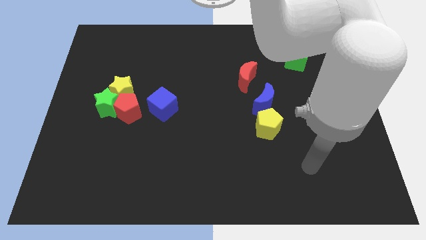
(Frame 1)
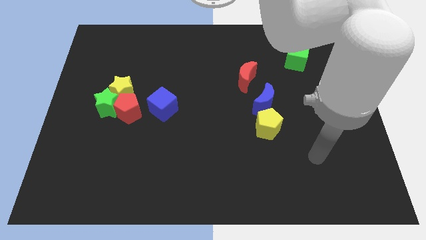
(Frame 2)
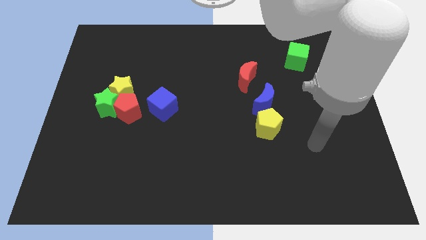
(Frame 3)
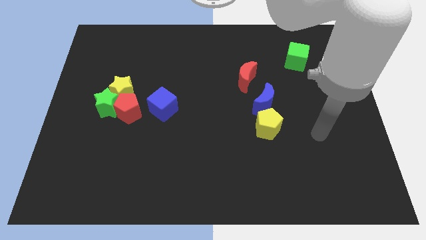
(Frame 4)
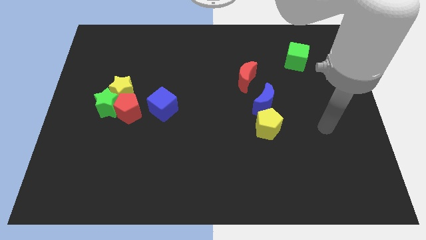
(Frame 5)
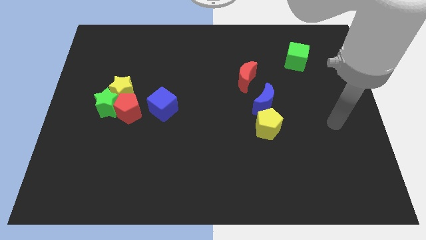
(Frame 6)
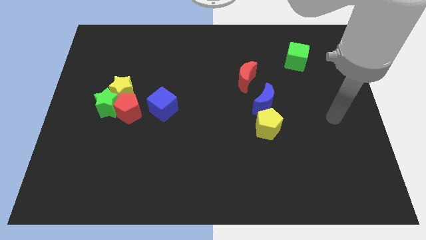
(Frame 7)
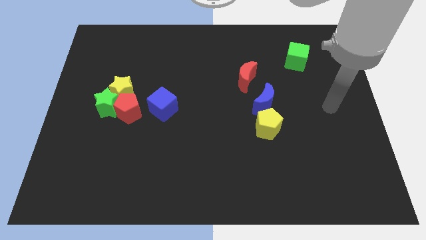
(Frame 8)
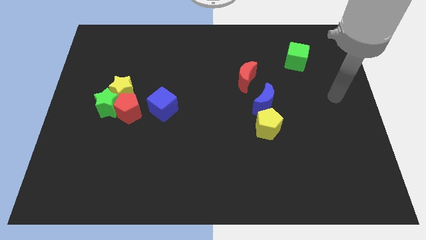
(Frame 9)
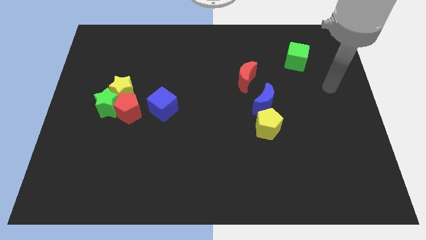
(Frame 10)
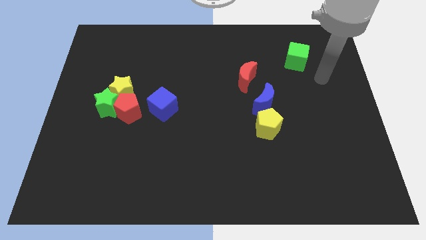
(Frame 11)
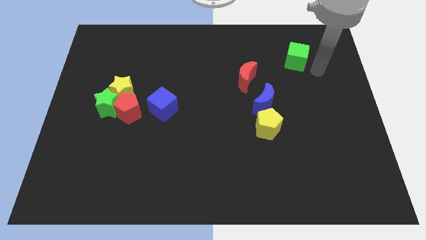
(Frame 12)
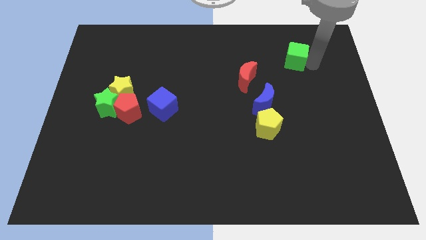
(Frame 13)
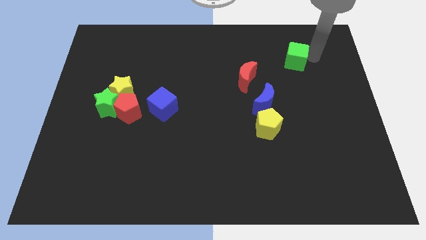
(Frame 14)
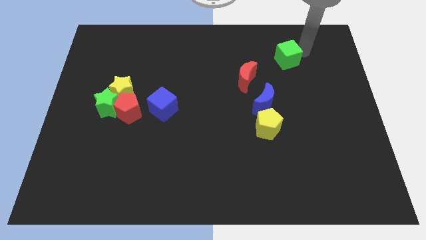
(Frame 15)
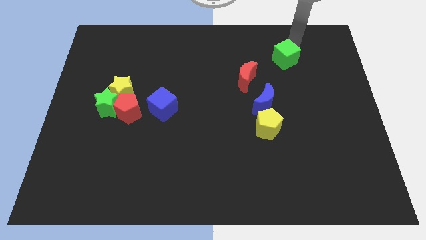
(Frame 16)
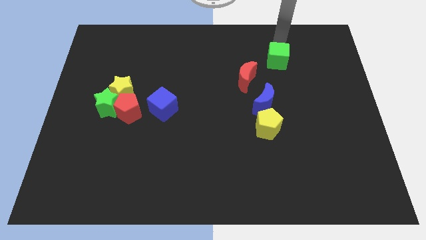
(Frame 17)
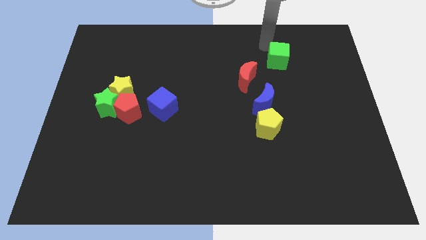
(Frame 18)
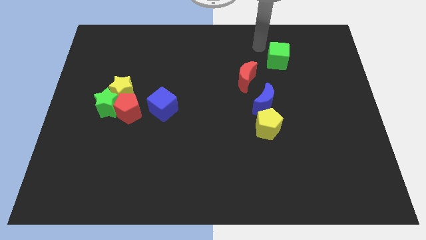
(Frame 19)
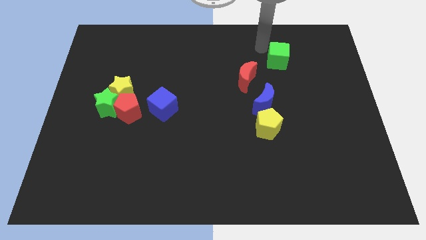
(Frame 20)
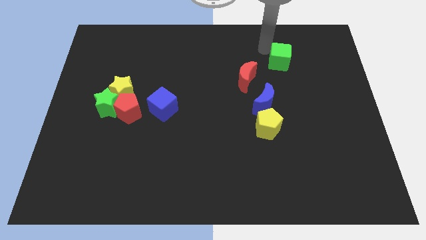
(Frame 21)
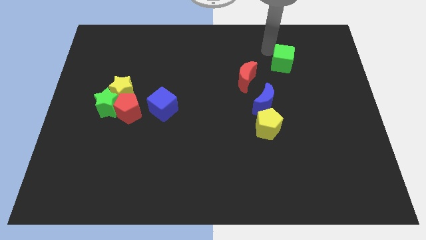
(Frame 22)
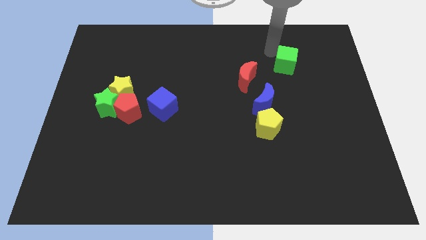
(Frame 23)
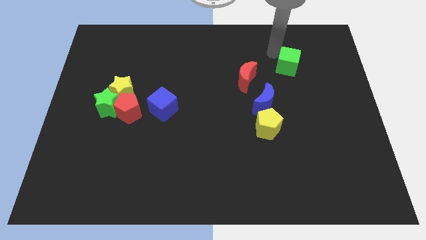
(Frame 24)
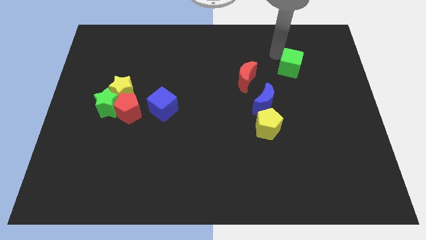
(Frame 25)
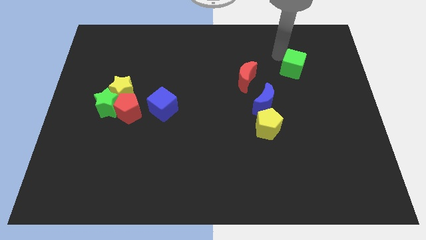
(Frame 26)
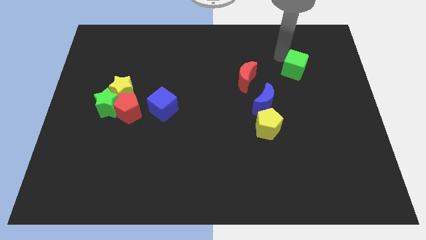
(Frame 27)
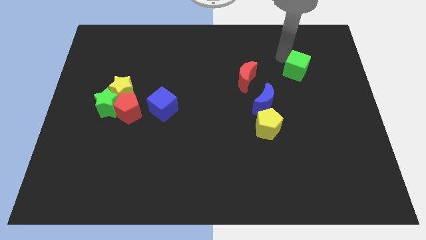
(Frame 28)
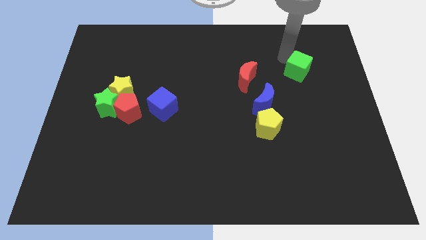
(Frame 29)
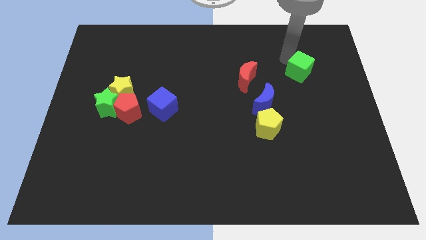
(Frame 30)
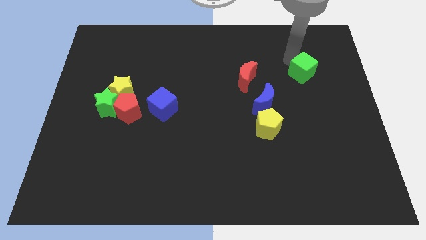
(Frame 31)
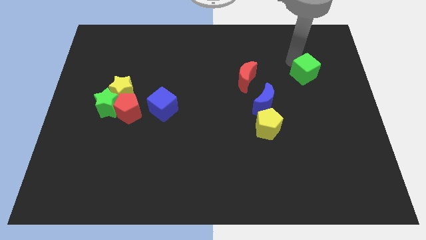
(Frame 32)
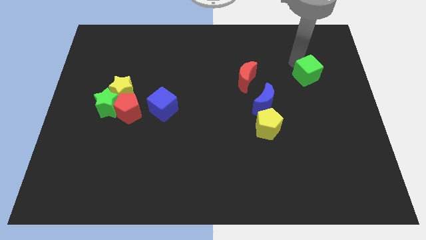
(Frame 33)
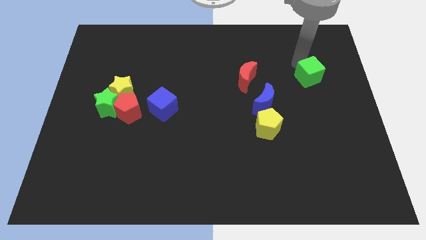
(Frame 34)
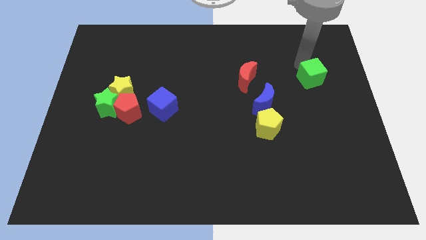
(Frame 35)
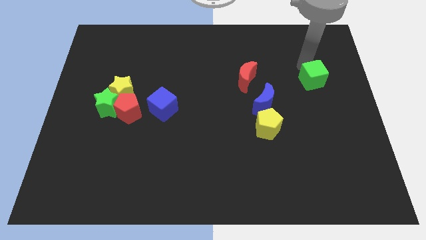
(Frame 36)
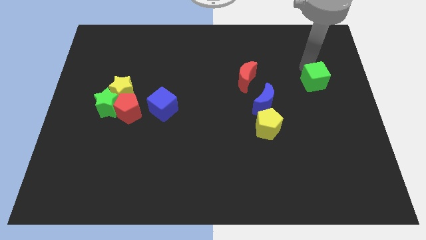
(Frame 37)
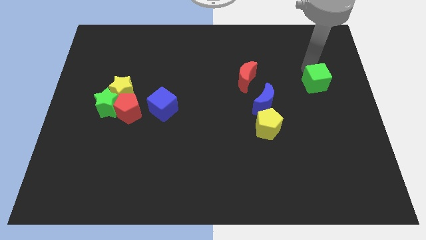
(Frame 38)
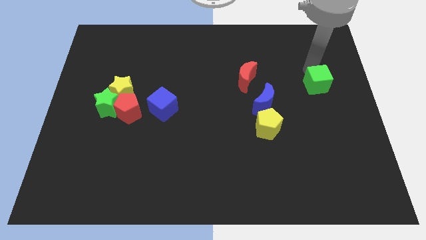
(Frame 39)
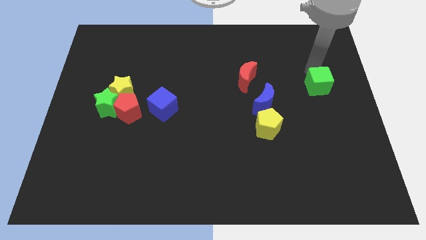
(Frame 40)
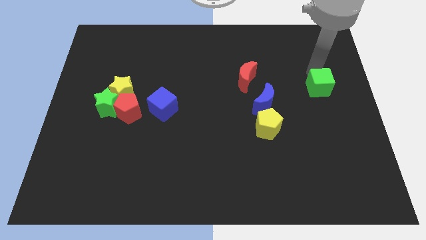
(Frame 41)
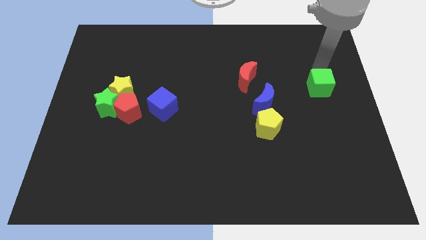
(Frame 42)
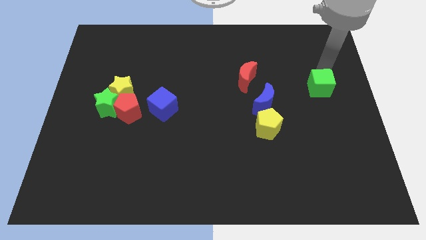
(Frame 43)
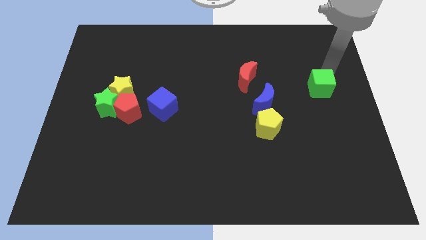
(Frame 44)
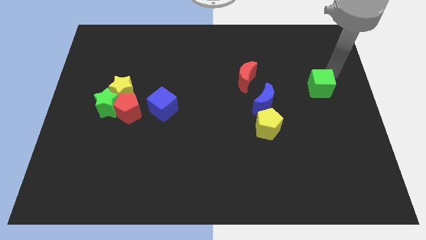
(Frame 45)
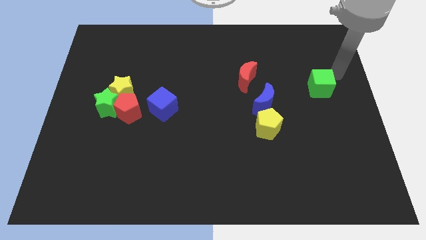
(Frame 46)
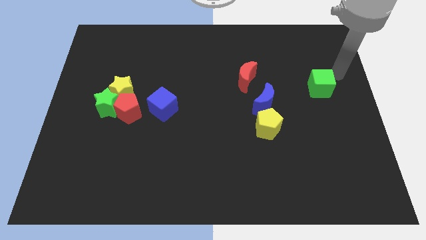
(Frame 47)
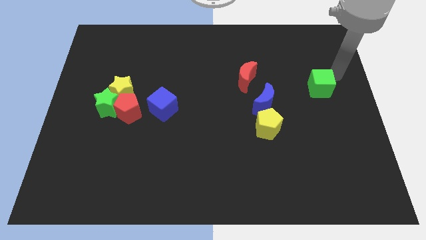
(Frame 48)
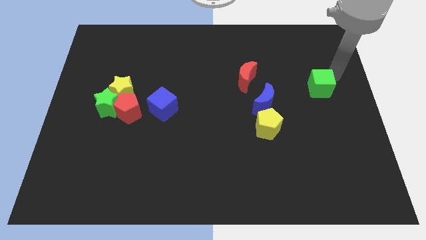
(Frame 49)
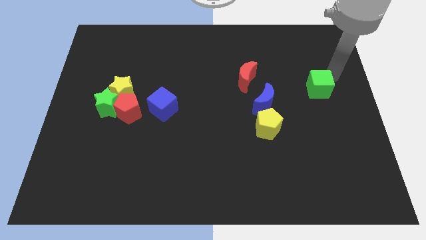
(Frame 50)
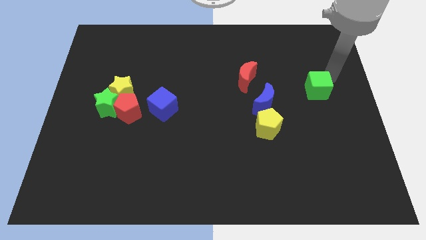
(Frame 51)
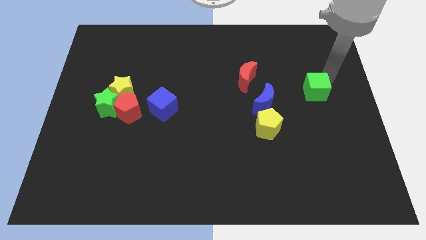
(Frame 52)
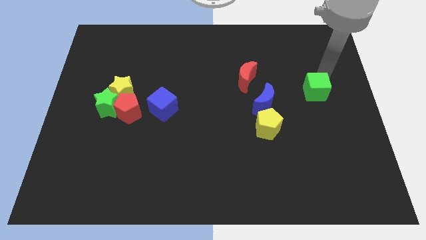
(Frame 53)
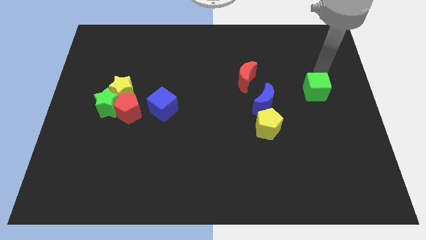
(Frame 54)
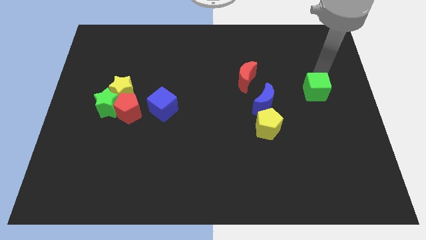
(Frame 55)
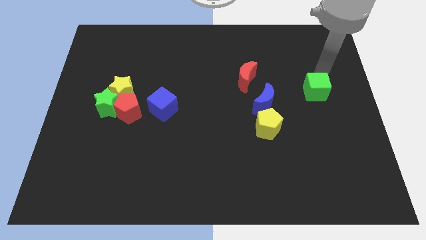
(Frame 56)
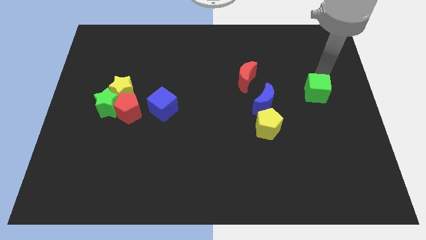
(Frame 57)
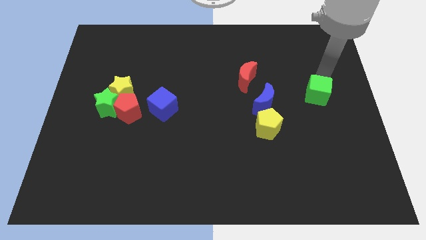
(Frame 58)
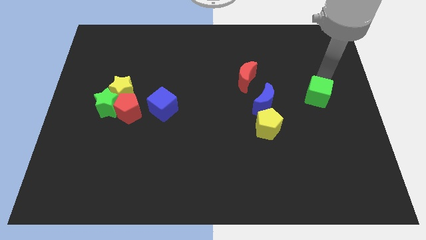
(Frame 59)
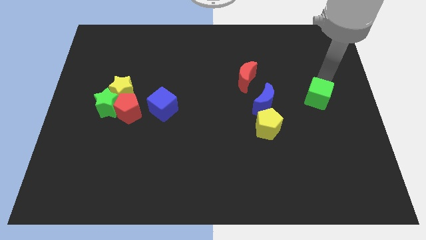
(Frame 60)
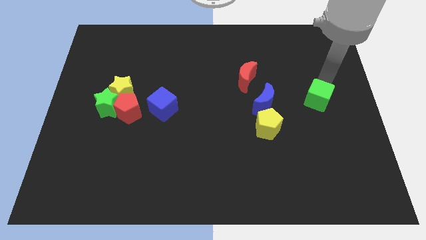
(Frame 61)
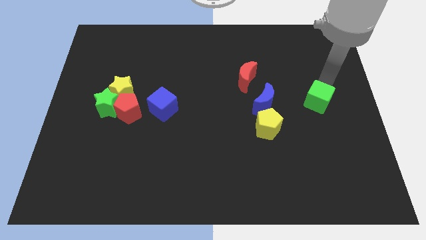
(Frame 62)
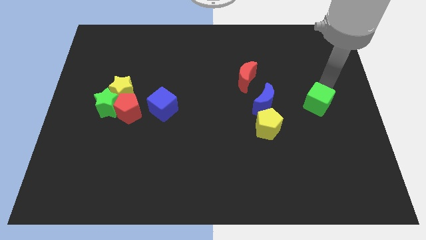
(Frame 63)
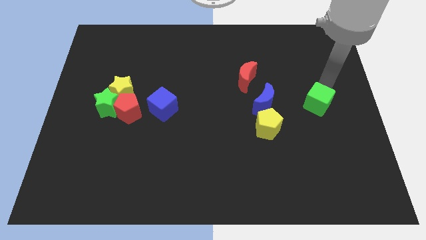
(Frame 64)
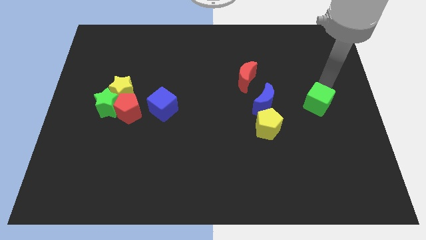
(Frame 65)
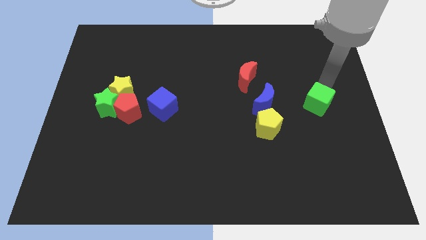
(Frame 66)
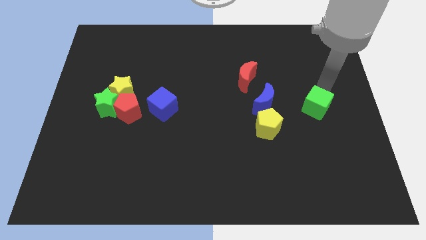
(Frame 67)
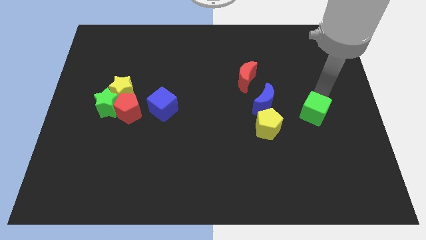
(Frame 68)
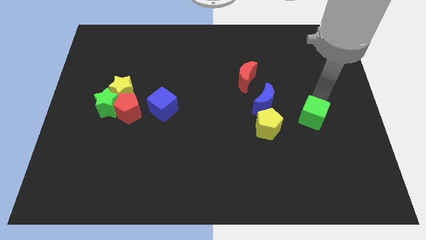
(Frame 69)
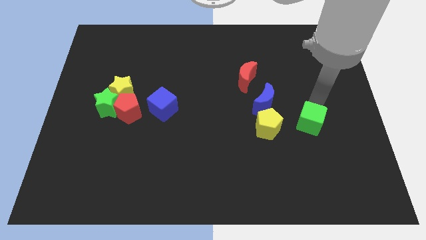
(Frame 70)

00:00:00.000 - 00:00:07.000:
slide the green cube downwards

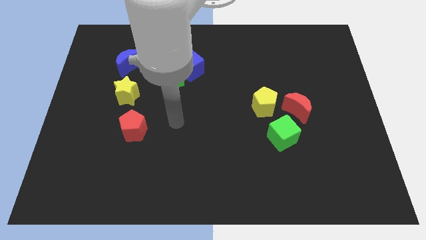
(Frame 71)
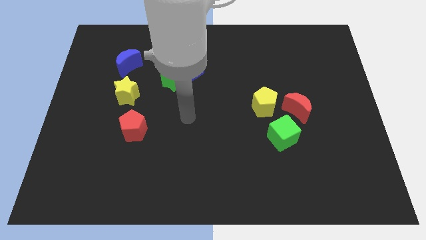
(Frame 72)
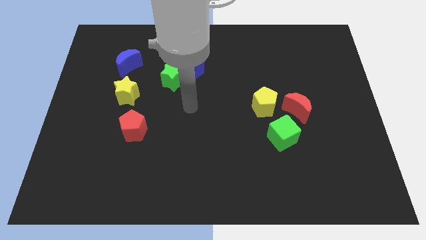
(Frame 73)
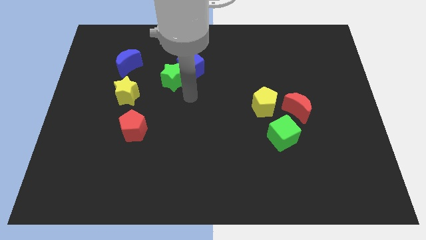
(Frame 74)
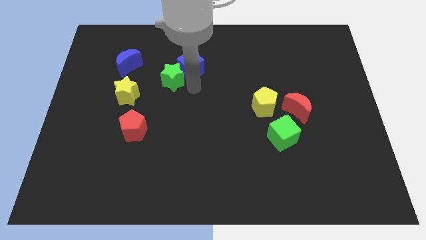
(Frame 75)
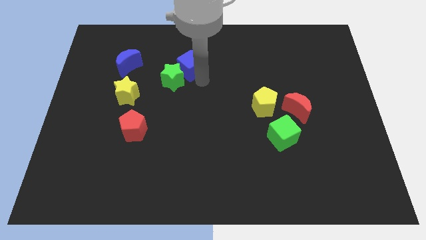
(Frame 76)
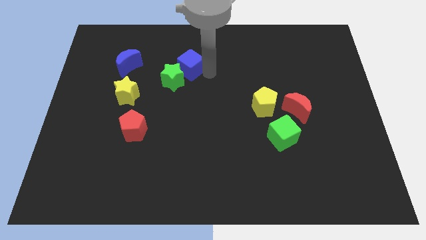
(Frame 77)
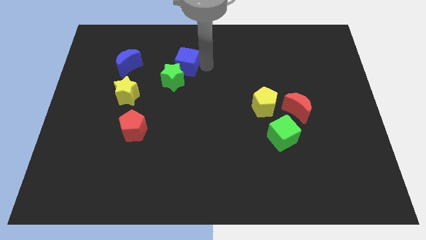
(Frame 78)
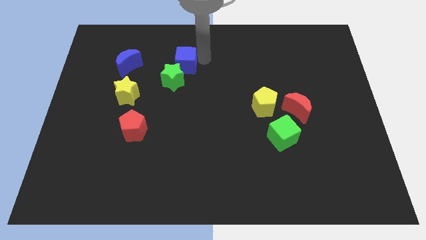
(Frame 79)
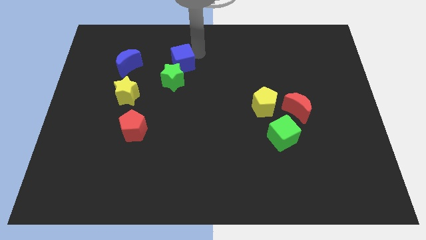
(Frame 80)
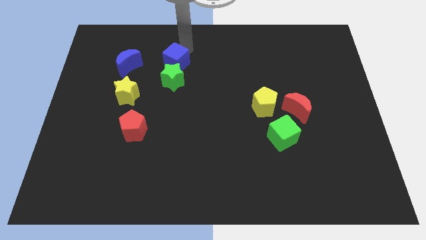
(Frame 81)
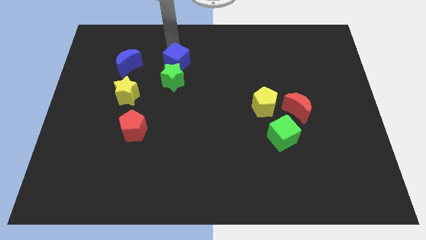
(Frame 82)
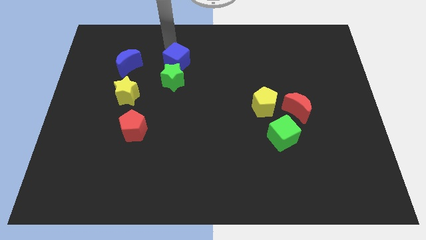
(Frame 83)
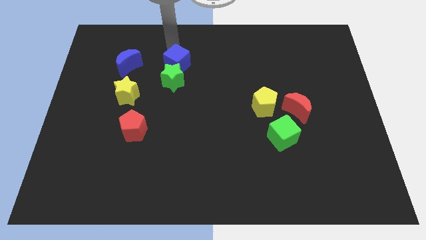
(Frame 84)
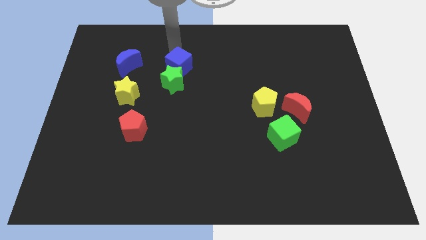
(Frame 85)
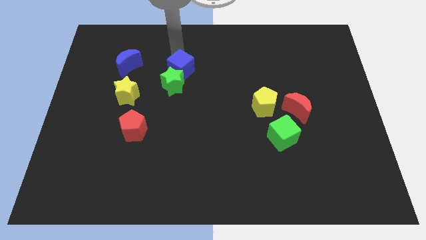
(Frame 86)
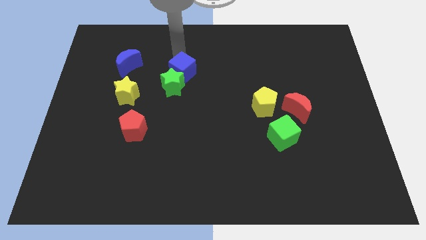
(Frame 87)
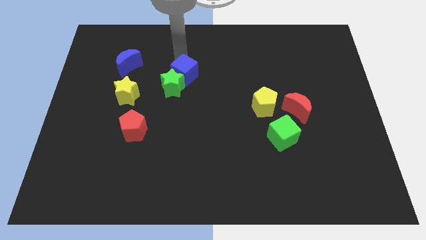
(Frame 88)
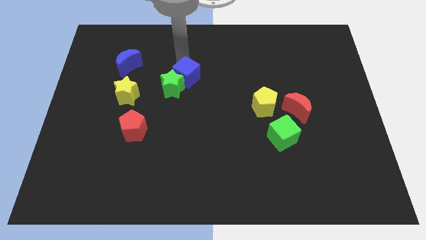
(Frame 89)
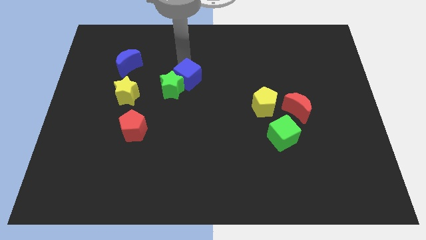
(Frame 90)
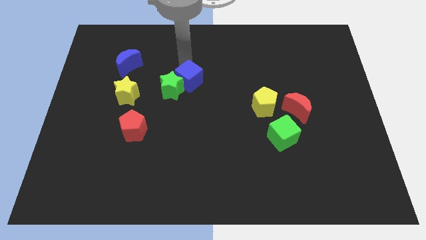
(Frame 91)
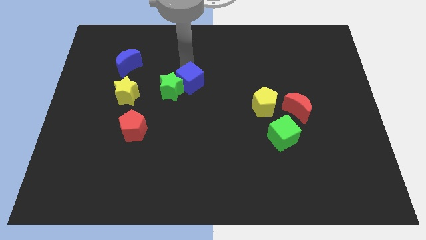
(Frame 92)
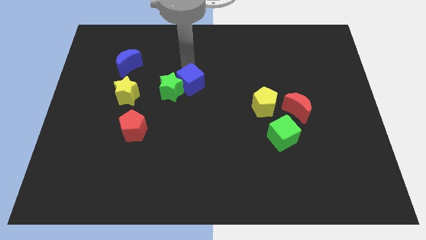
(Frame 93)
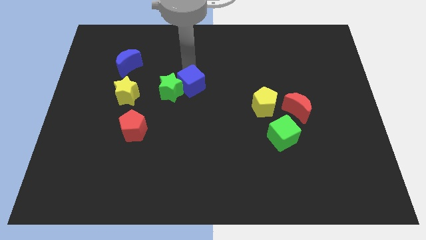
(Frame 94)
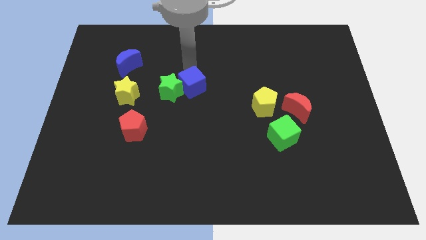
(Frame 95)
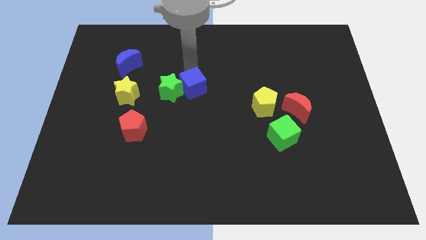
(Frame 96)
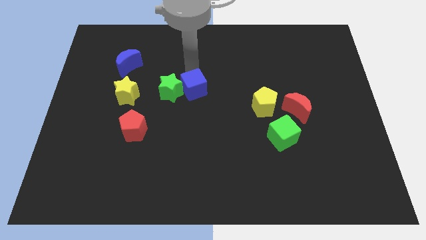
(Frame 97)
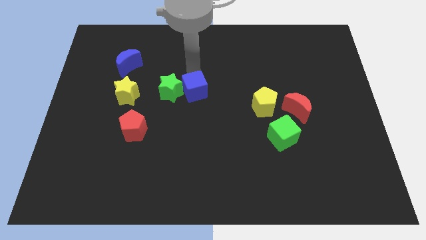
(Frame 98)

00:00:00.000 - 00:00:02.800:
slightly push the blue cube downwards
